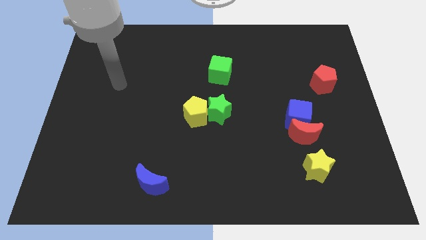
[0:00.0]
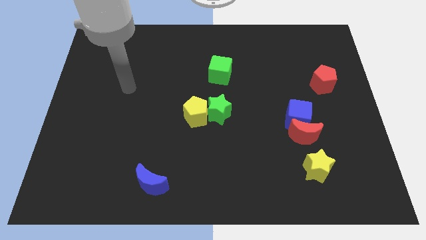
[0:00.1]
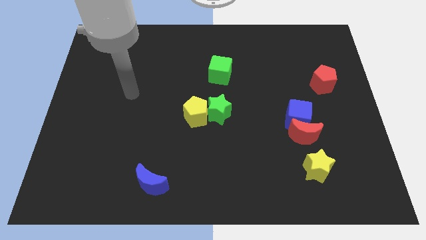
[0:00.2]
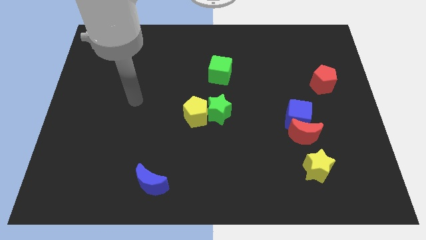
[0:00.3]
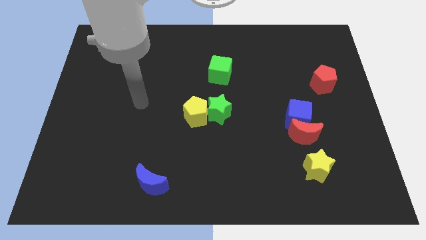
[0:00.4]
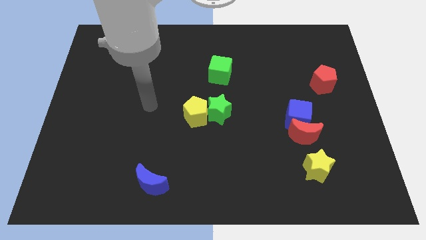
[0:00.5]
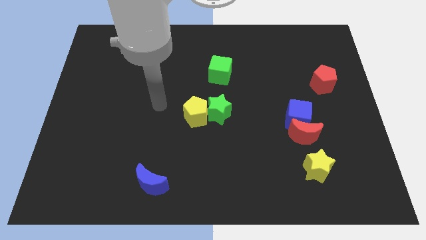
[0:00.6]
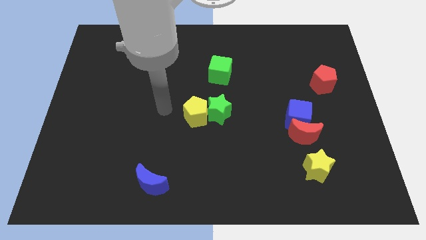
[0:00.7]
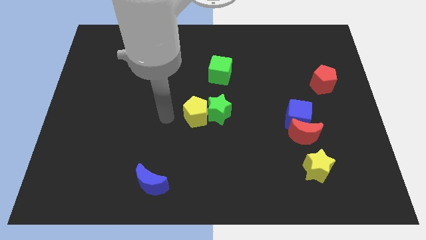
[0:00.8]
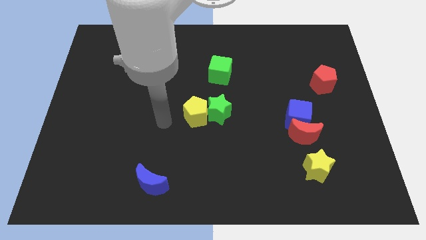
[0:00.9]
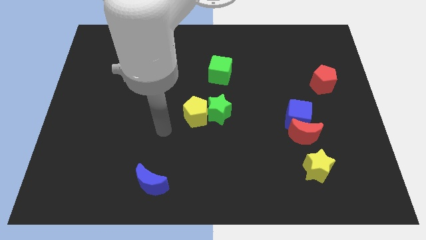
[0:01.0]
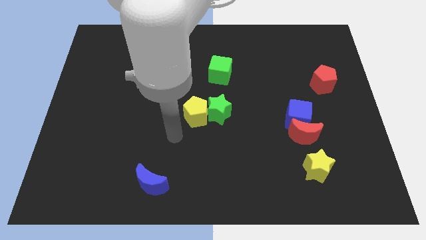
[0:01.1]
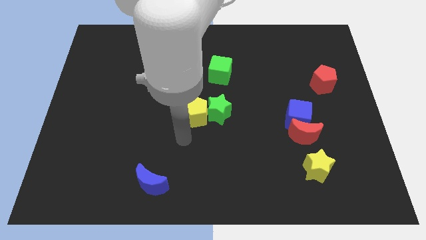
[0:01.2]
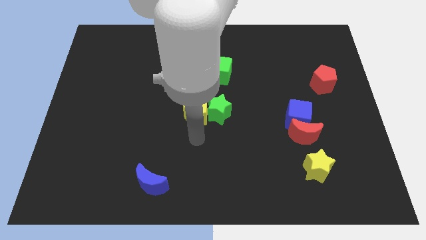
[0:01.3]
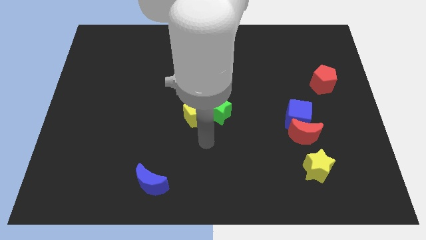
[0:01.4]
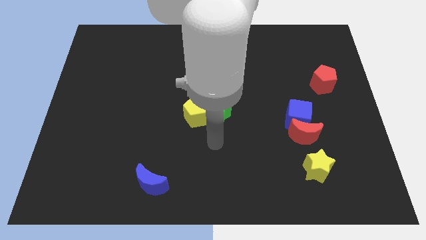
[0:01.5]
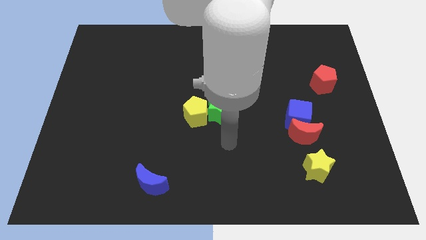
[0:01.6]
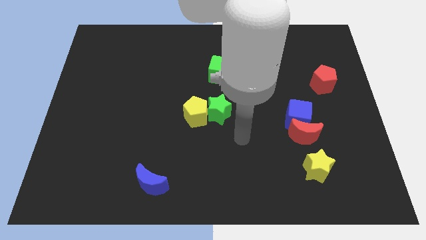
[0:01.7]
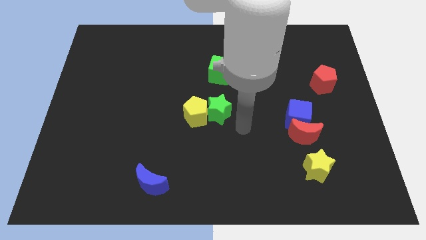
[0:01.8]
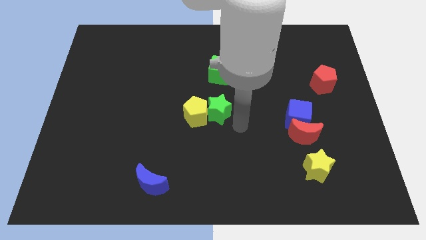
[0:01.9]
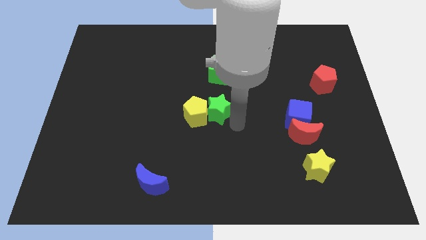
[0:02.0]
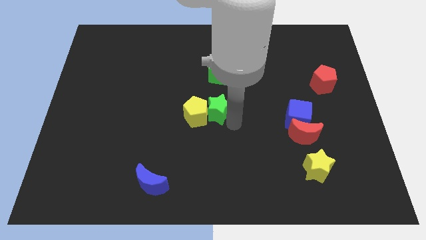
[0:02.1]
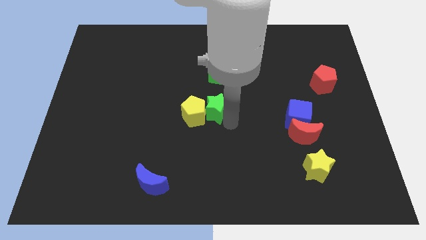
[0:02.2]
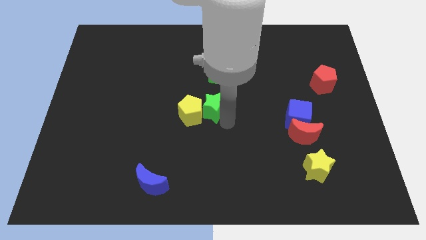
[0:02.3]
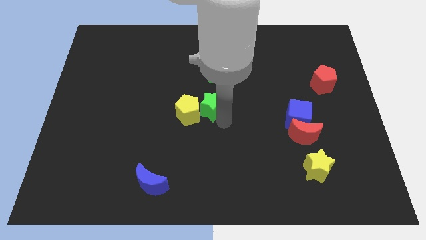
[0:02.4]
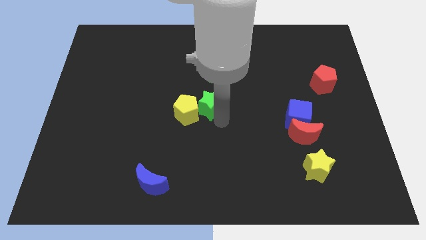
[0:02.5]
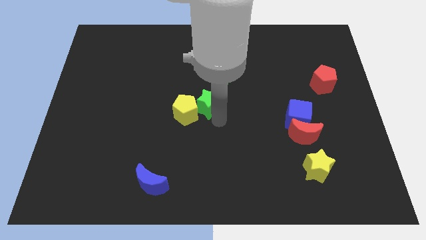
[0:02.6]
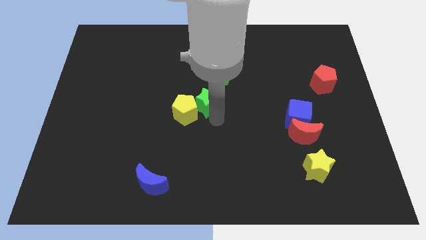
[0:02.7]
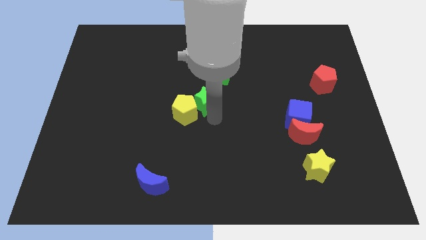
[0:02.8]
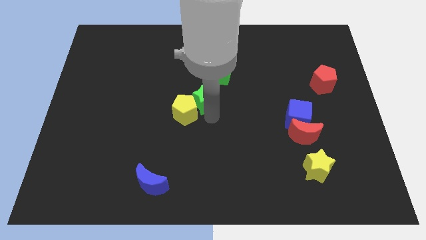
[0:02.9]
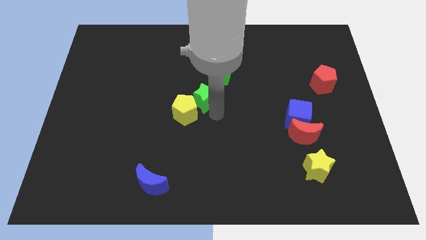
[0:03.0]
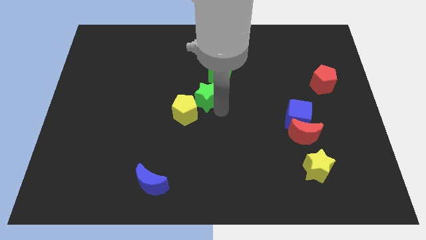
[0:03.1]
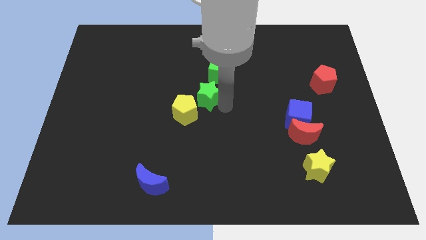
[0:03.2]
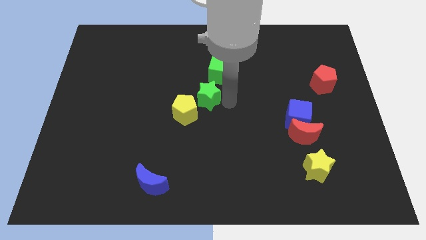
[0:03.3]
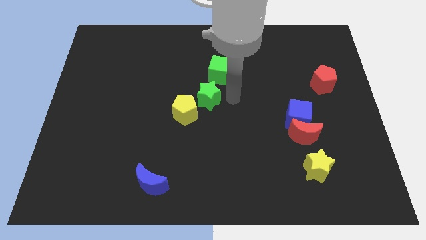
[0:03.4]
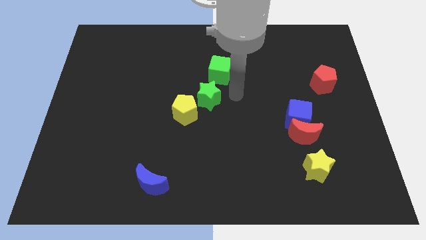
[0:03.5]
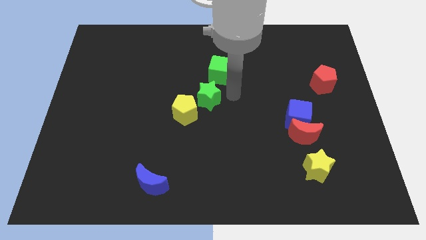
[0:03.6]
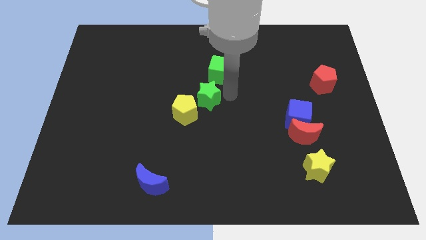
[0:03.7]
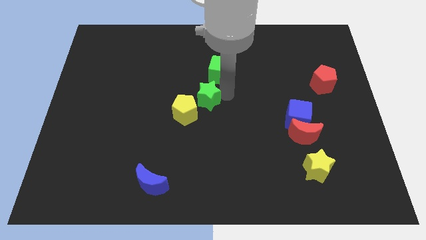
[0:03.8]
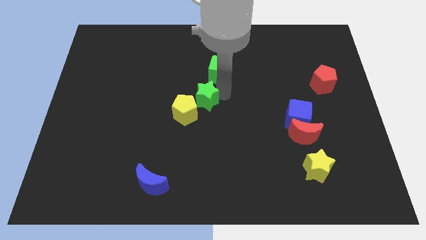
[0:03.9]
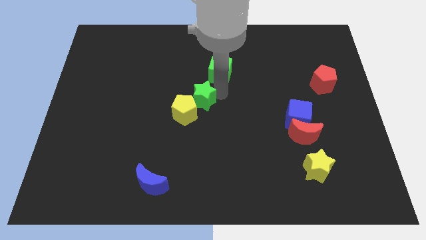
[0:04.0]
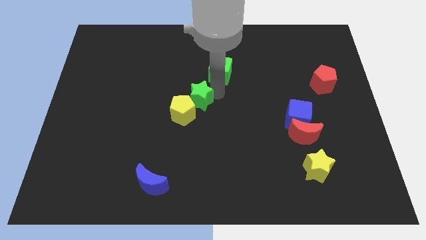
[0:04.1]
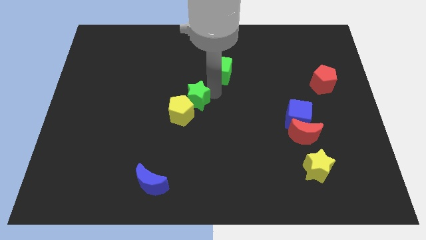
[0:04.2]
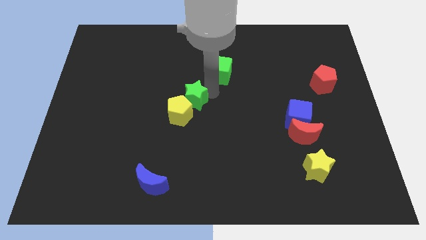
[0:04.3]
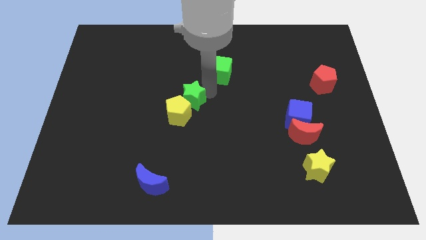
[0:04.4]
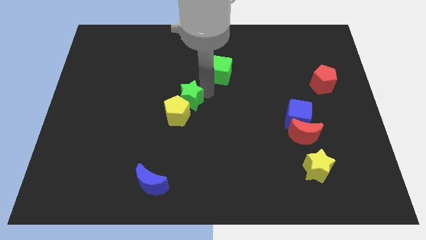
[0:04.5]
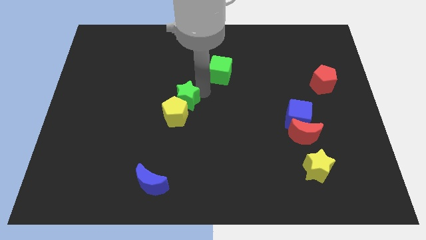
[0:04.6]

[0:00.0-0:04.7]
push the green star to the left a little

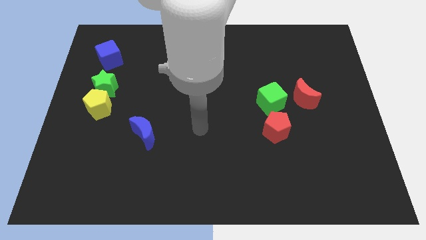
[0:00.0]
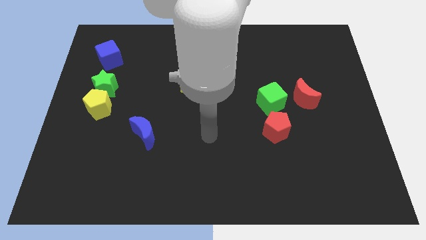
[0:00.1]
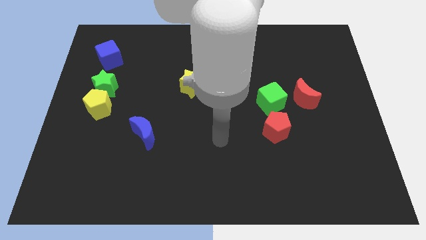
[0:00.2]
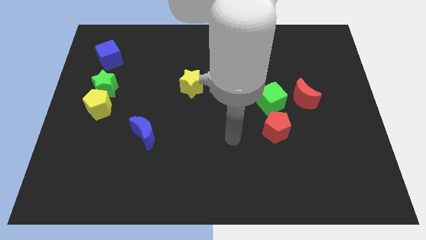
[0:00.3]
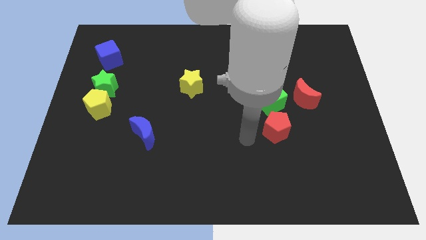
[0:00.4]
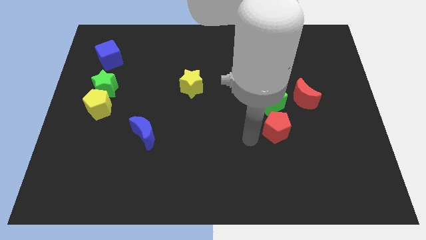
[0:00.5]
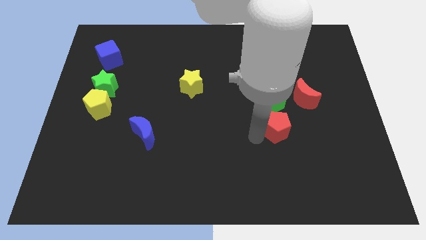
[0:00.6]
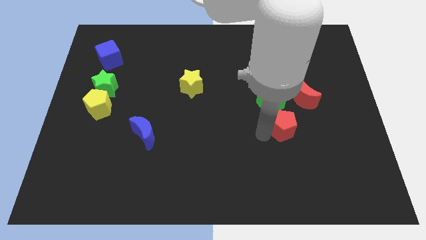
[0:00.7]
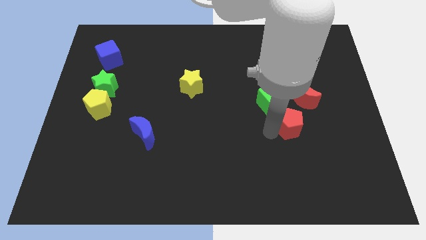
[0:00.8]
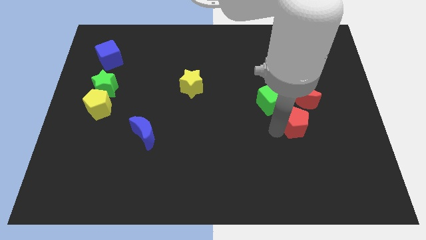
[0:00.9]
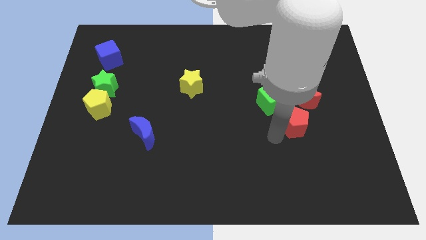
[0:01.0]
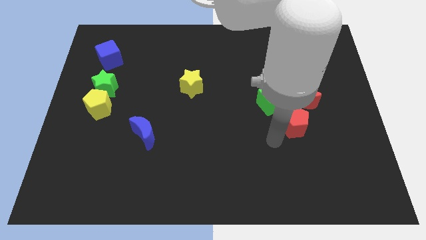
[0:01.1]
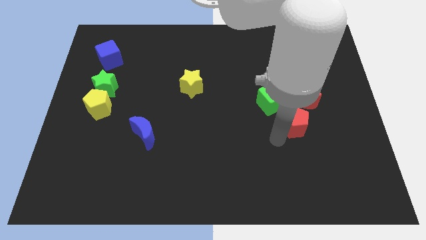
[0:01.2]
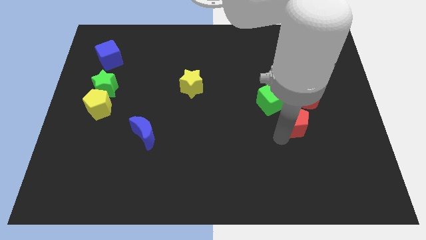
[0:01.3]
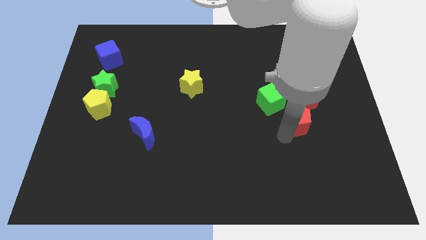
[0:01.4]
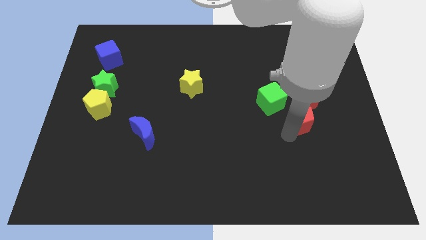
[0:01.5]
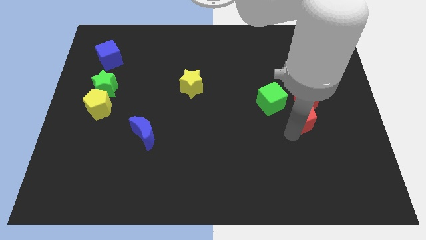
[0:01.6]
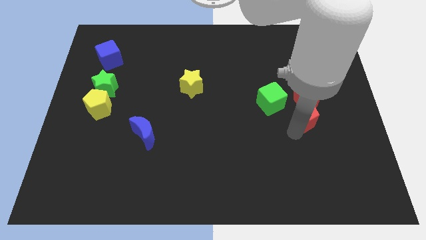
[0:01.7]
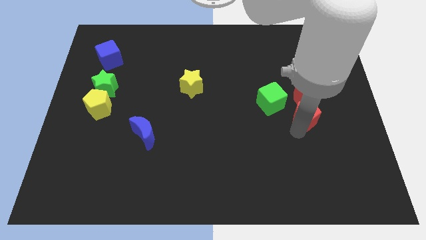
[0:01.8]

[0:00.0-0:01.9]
slide the red pentagon upwards and to the right slightly

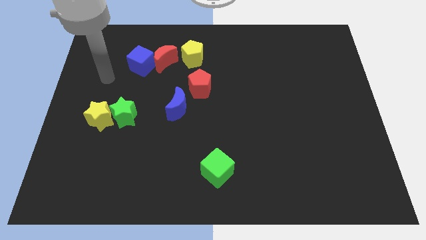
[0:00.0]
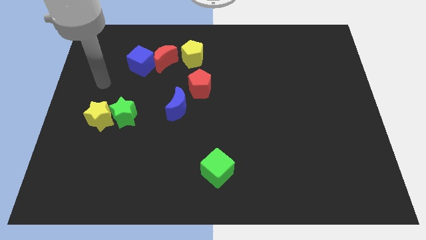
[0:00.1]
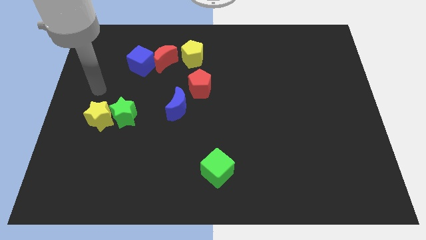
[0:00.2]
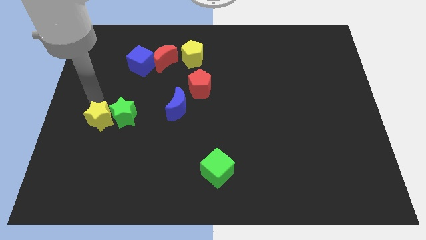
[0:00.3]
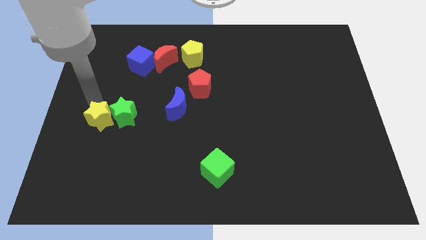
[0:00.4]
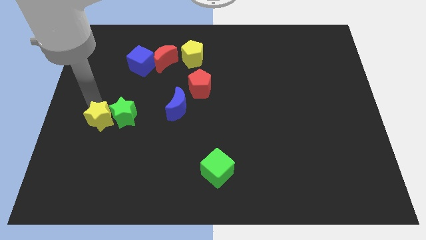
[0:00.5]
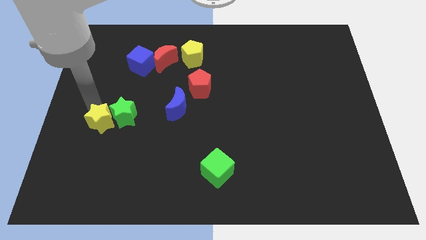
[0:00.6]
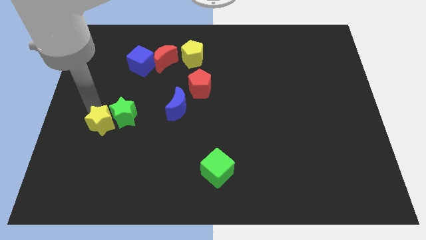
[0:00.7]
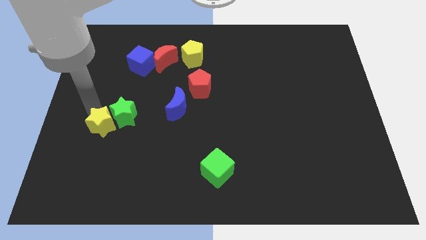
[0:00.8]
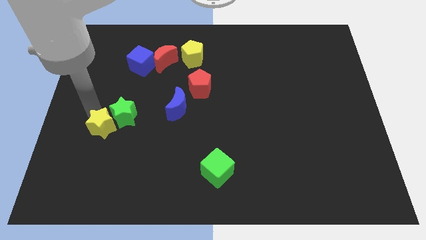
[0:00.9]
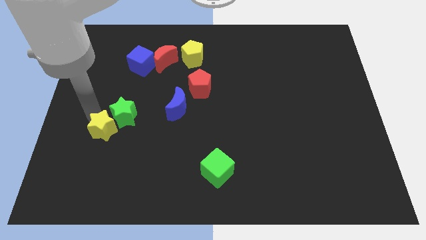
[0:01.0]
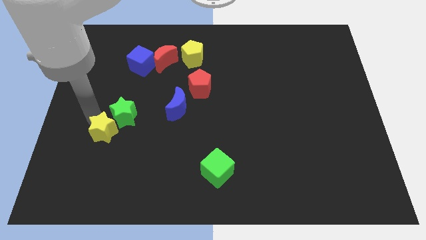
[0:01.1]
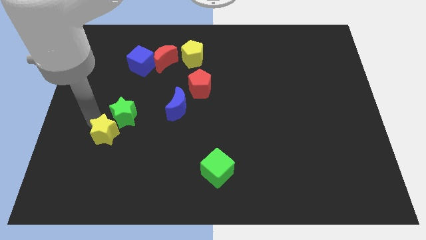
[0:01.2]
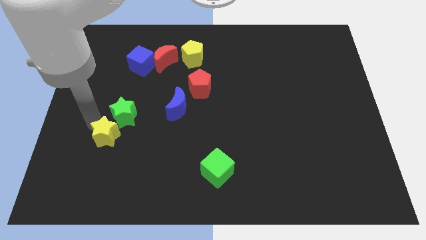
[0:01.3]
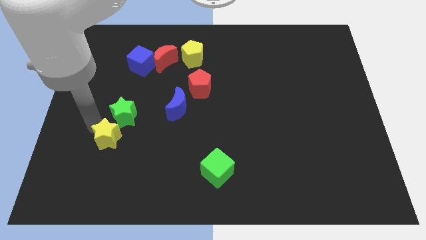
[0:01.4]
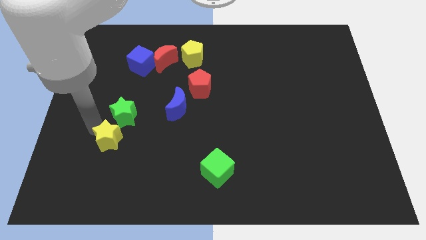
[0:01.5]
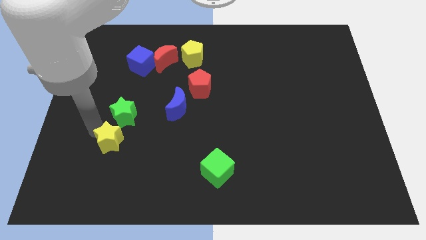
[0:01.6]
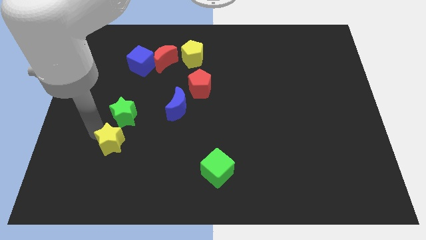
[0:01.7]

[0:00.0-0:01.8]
slide the yellow star downwards and then right slightly
